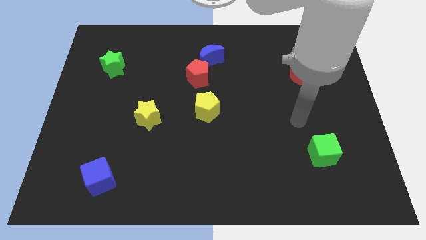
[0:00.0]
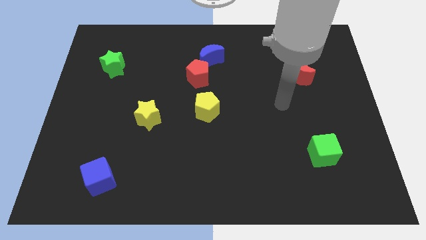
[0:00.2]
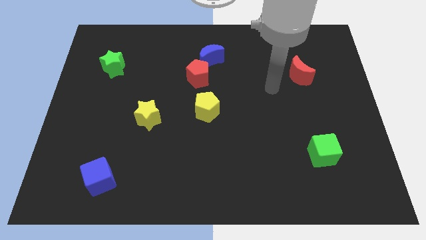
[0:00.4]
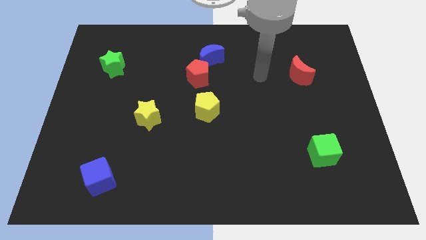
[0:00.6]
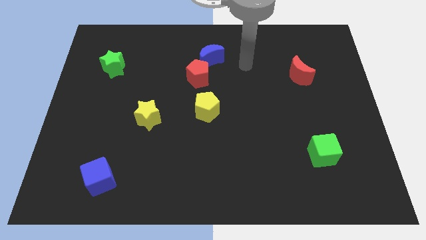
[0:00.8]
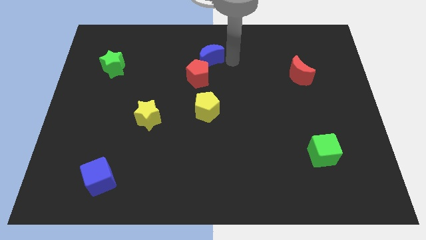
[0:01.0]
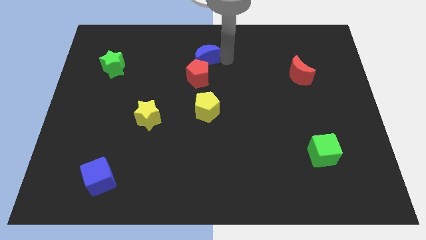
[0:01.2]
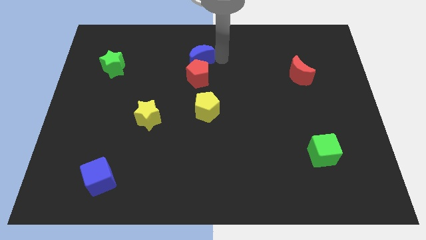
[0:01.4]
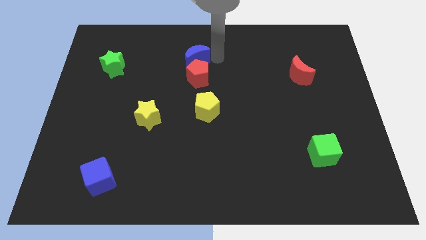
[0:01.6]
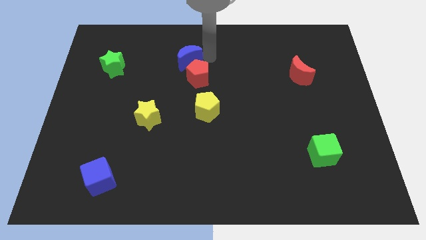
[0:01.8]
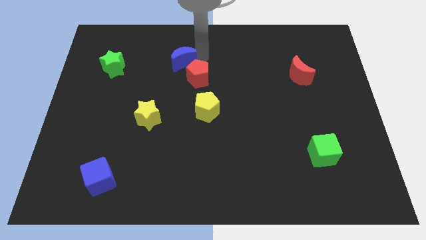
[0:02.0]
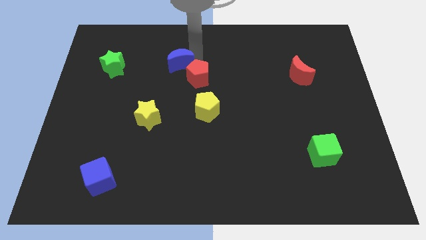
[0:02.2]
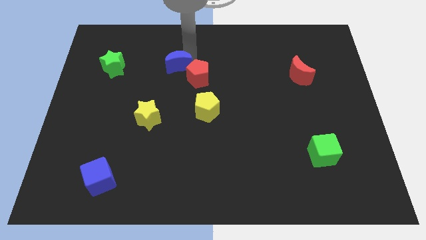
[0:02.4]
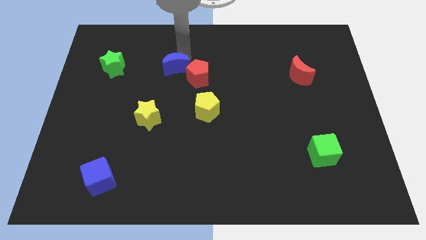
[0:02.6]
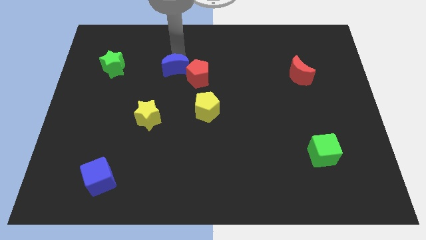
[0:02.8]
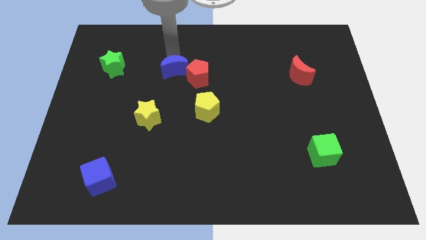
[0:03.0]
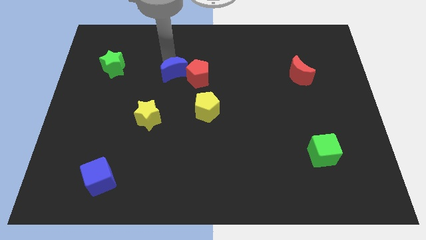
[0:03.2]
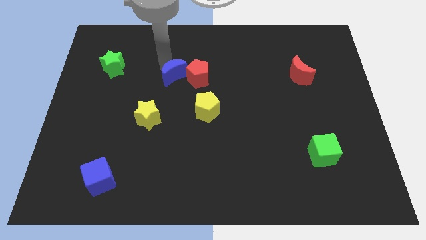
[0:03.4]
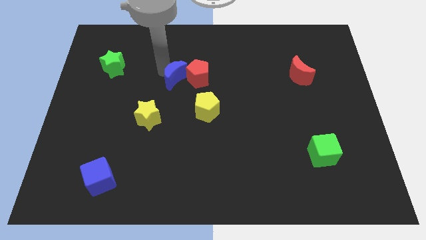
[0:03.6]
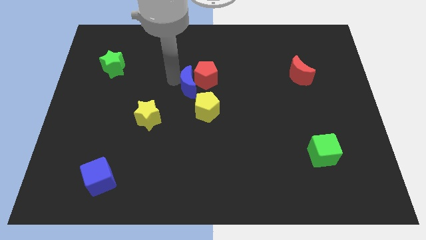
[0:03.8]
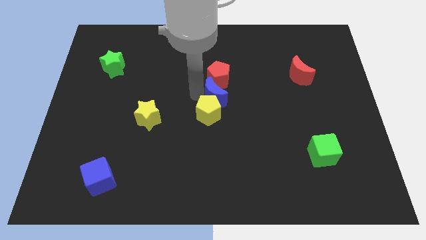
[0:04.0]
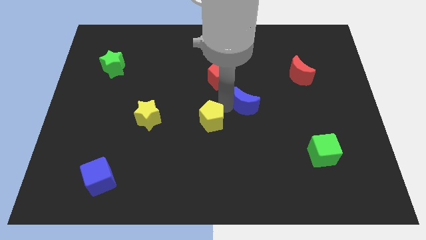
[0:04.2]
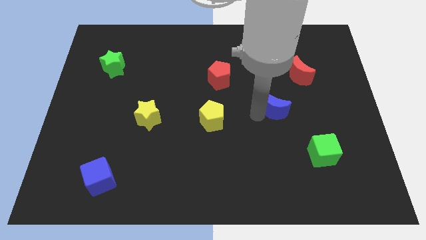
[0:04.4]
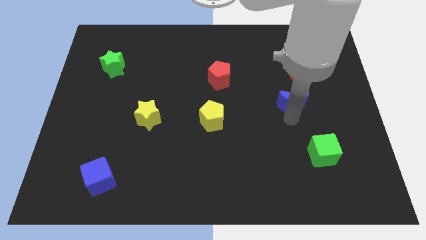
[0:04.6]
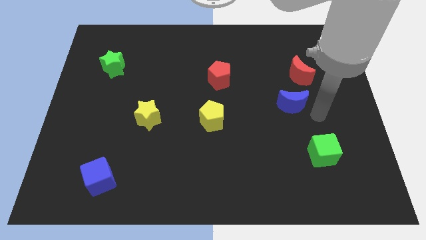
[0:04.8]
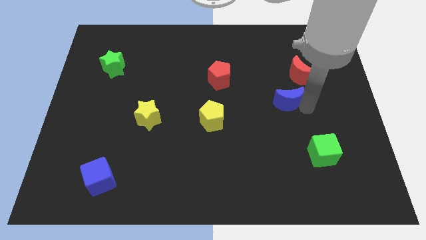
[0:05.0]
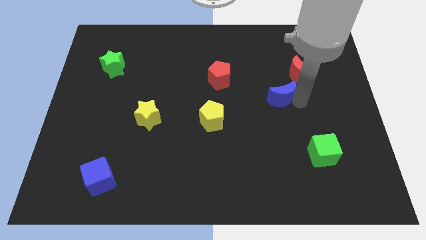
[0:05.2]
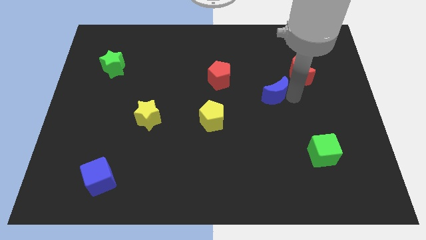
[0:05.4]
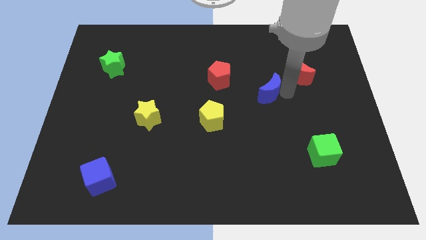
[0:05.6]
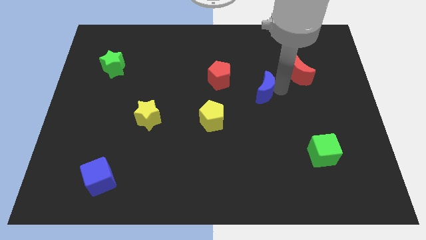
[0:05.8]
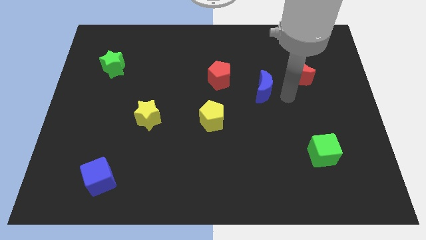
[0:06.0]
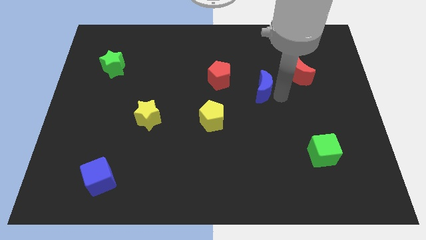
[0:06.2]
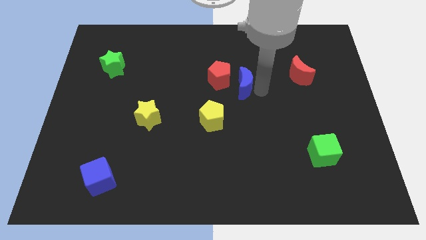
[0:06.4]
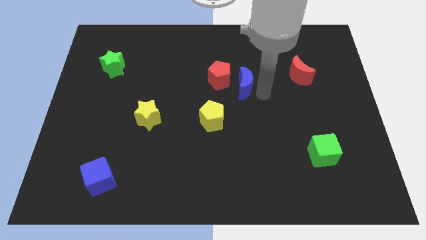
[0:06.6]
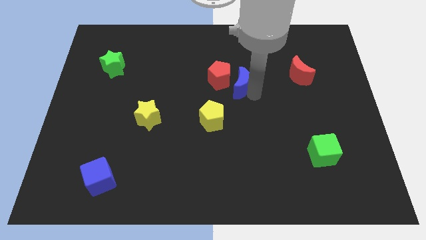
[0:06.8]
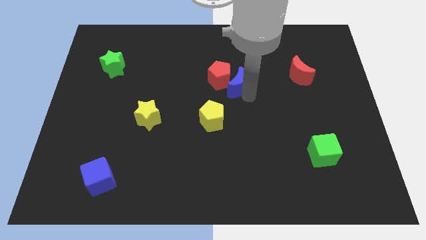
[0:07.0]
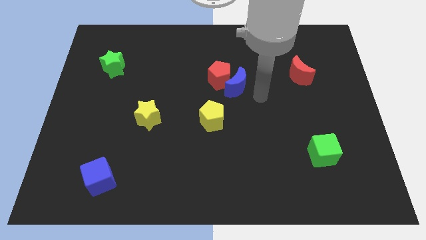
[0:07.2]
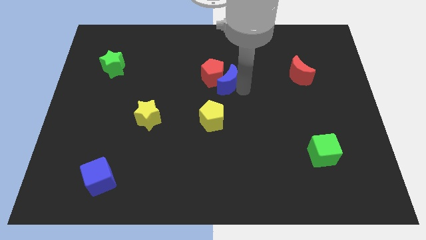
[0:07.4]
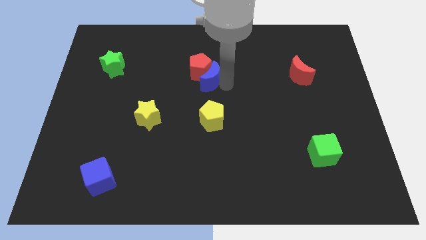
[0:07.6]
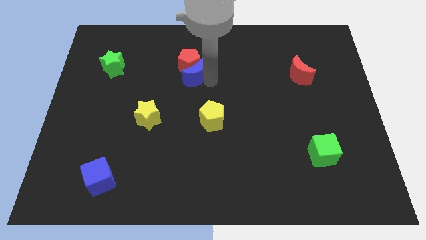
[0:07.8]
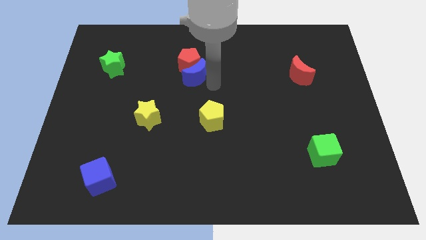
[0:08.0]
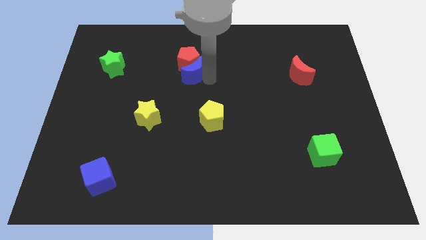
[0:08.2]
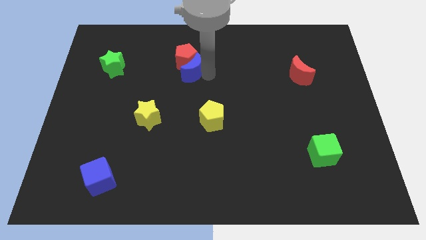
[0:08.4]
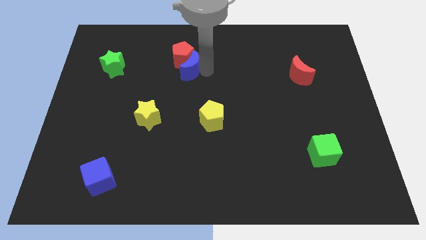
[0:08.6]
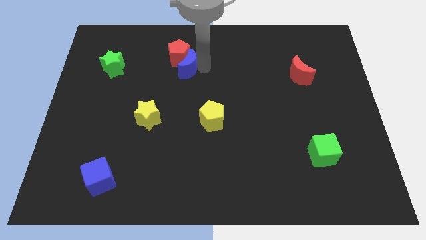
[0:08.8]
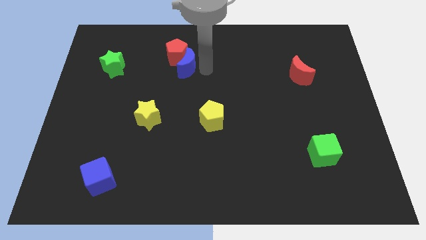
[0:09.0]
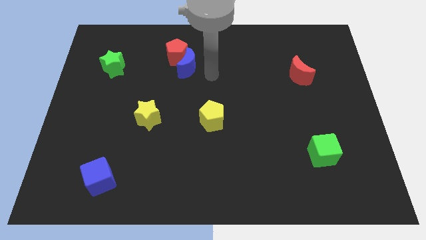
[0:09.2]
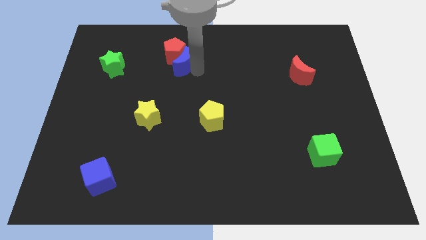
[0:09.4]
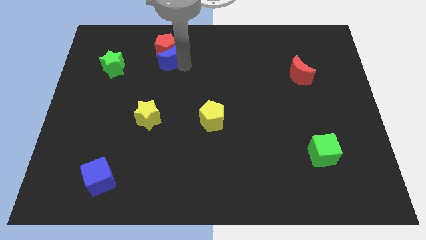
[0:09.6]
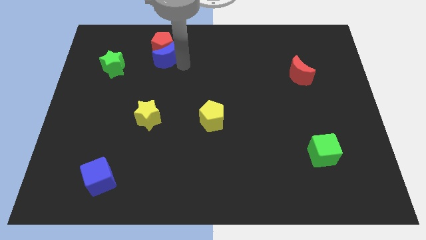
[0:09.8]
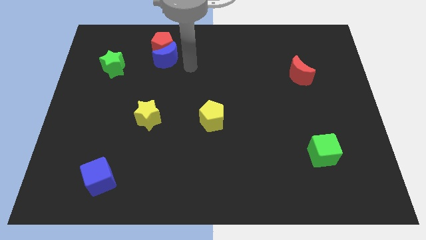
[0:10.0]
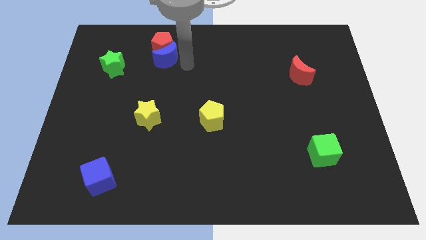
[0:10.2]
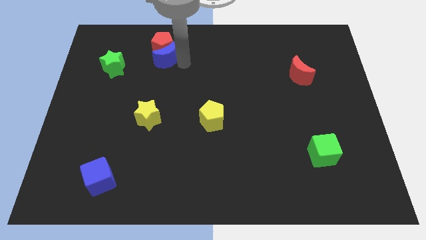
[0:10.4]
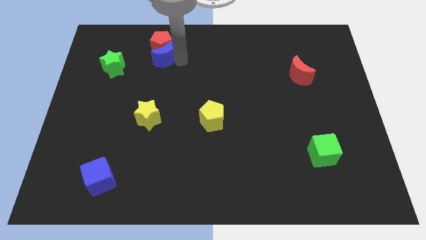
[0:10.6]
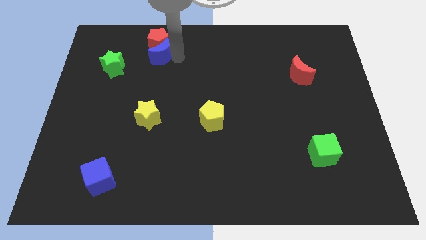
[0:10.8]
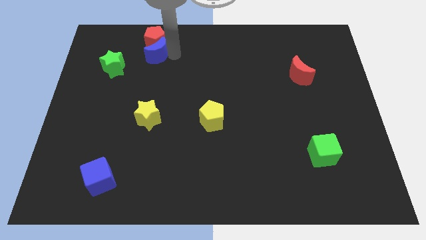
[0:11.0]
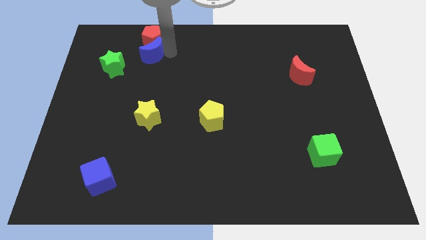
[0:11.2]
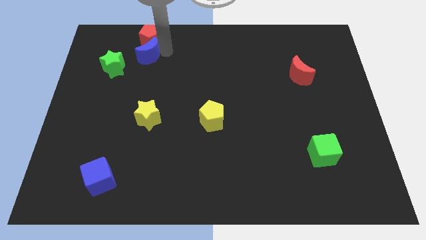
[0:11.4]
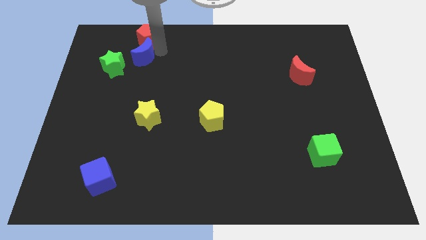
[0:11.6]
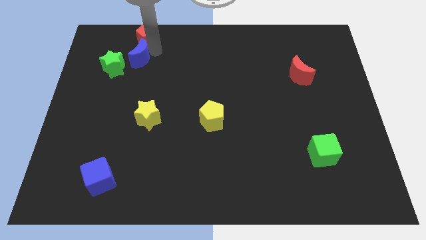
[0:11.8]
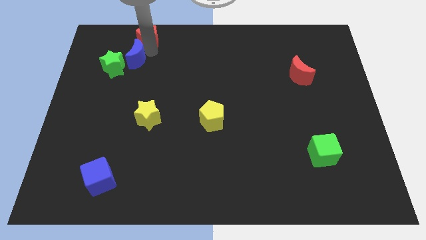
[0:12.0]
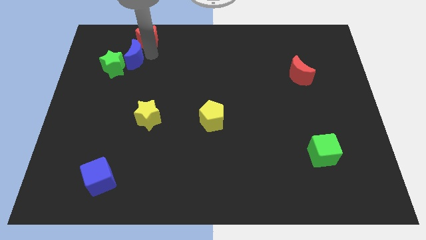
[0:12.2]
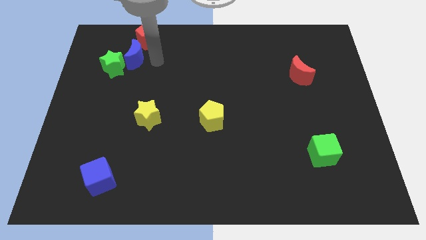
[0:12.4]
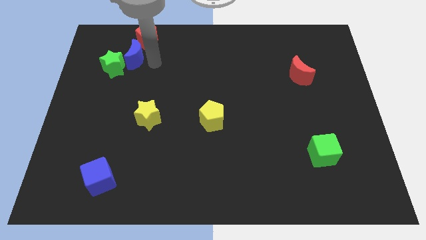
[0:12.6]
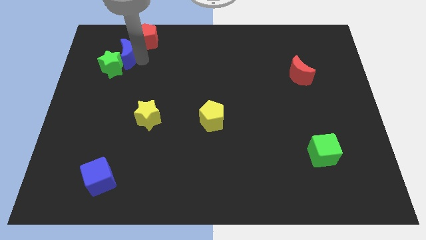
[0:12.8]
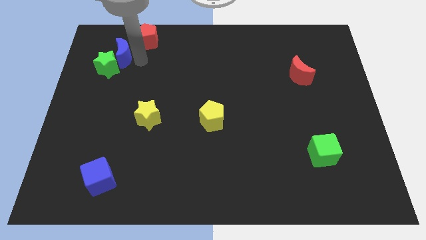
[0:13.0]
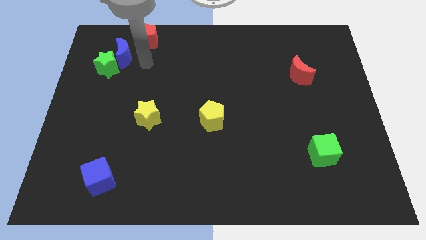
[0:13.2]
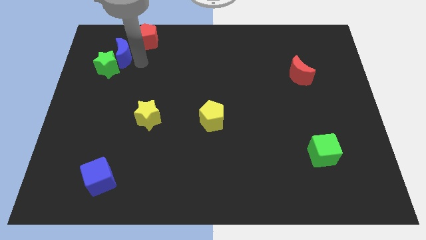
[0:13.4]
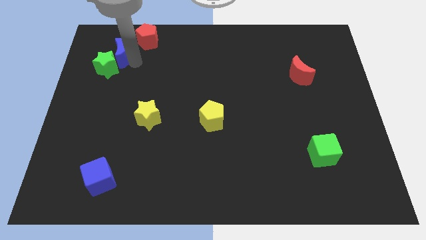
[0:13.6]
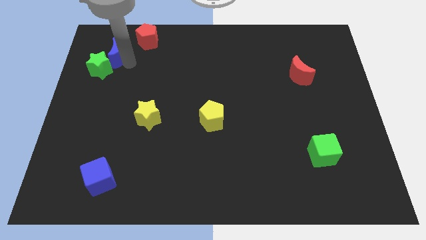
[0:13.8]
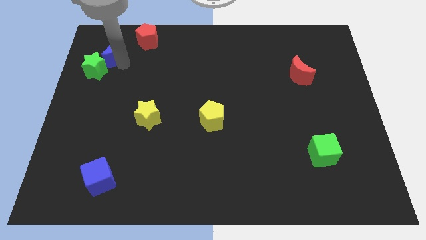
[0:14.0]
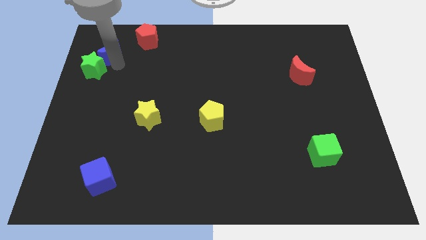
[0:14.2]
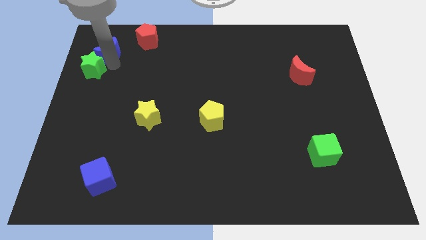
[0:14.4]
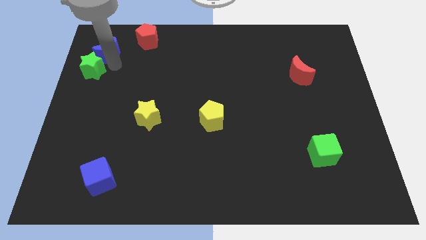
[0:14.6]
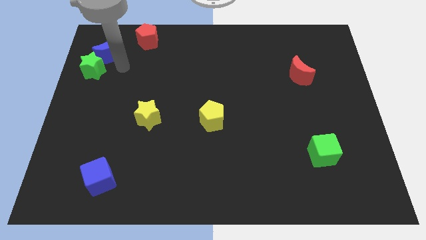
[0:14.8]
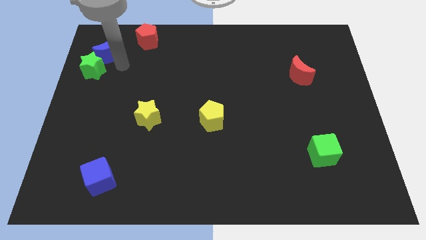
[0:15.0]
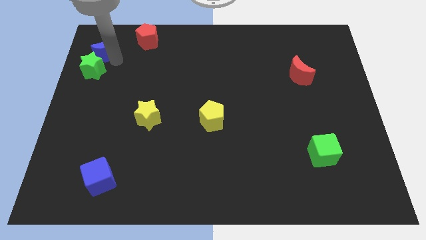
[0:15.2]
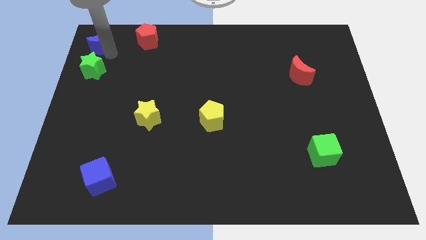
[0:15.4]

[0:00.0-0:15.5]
slide the blue moon to the upper left corner
